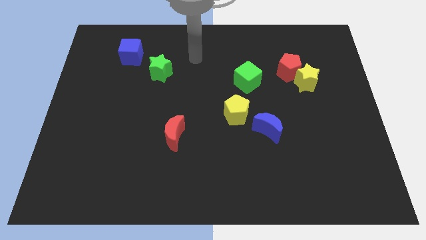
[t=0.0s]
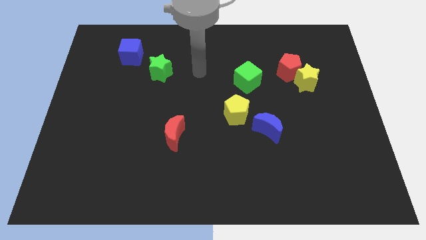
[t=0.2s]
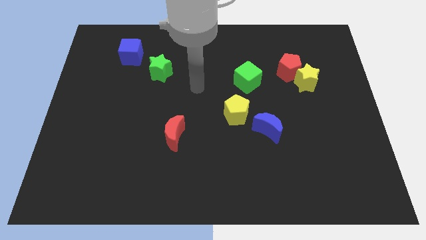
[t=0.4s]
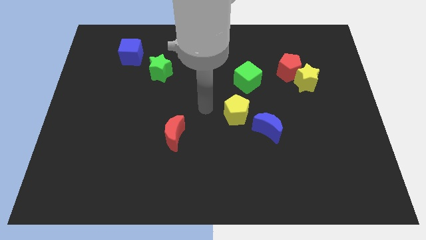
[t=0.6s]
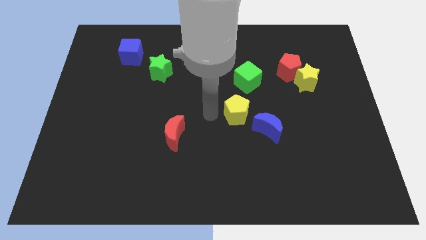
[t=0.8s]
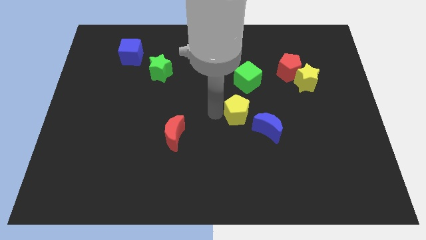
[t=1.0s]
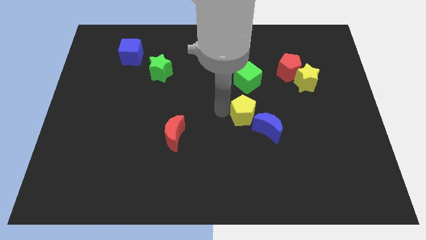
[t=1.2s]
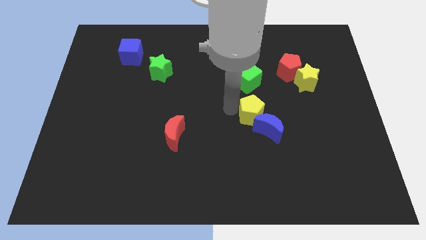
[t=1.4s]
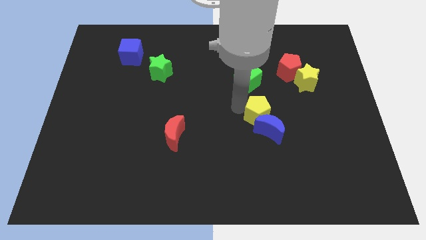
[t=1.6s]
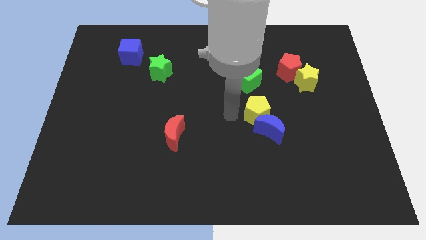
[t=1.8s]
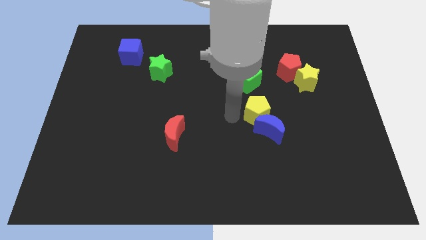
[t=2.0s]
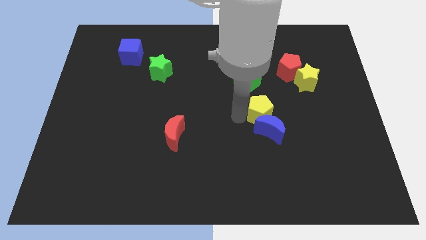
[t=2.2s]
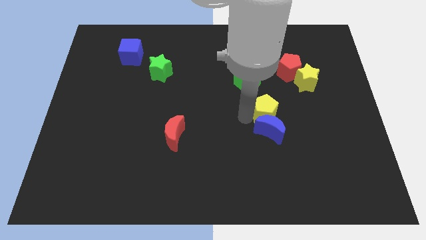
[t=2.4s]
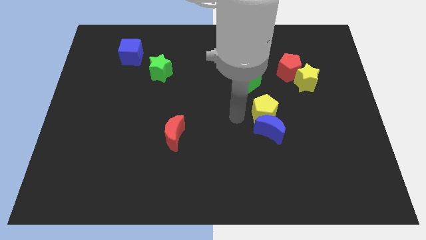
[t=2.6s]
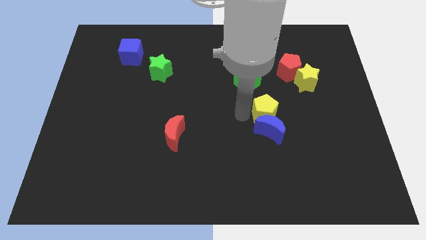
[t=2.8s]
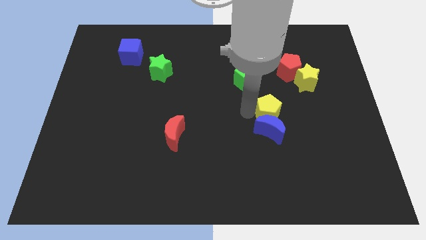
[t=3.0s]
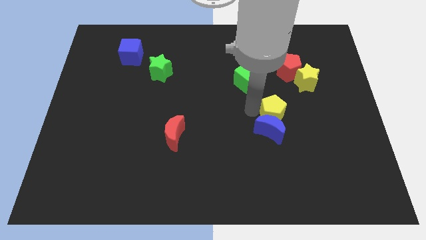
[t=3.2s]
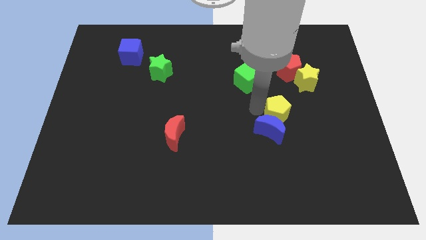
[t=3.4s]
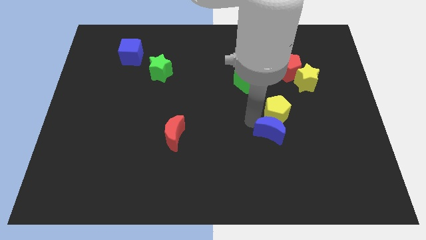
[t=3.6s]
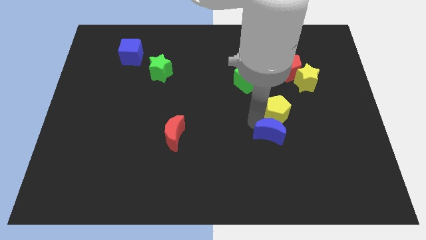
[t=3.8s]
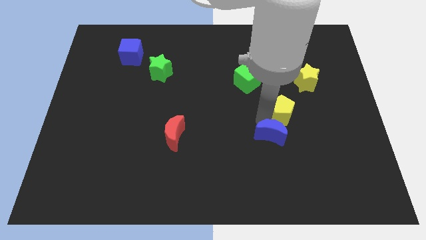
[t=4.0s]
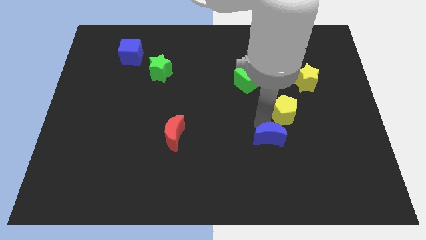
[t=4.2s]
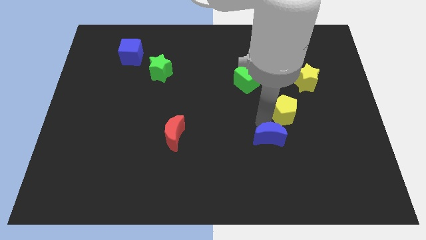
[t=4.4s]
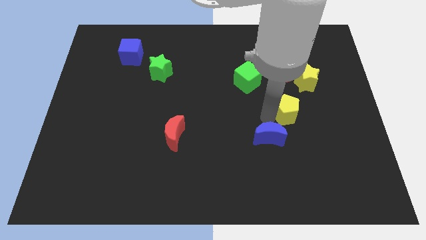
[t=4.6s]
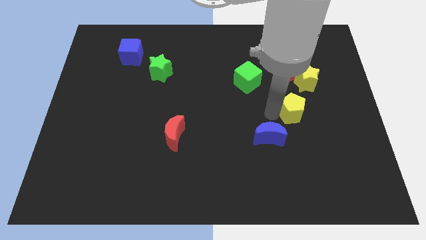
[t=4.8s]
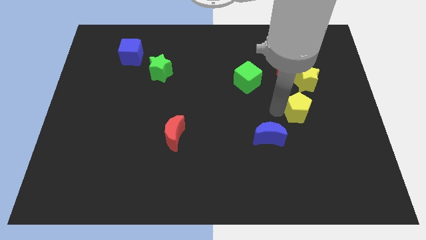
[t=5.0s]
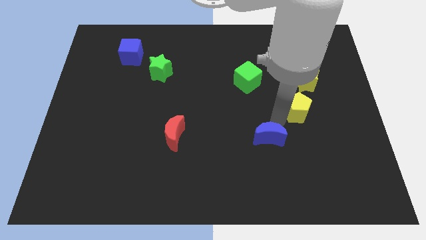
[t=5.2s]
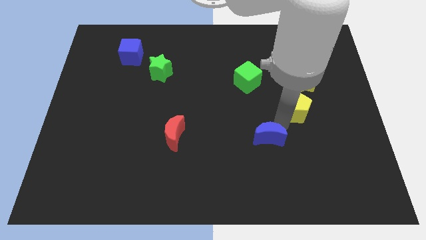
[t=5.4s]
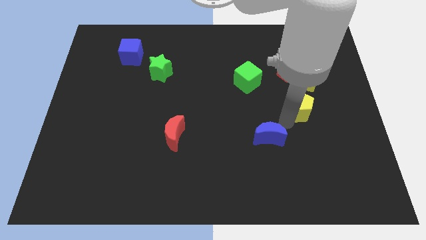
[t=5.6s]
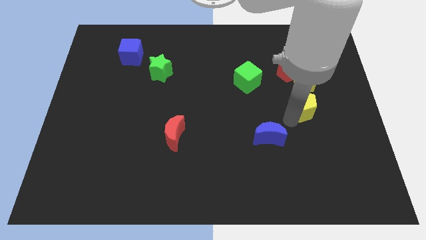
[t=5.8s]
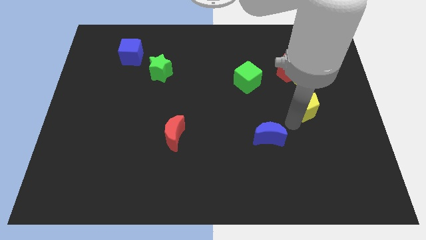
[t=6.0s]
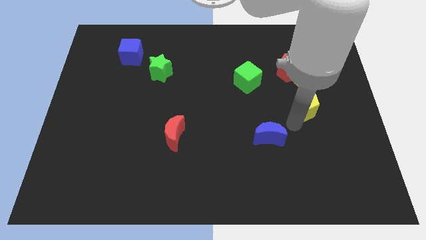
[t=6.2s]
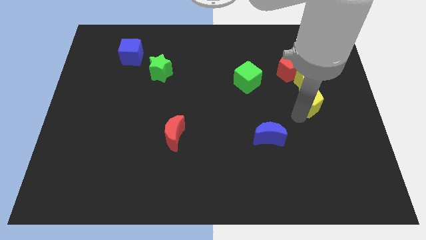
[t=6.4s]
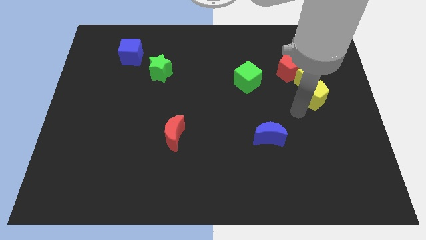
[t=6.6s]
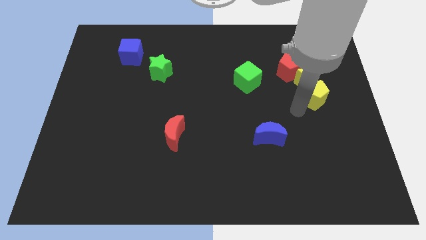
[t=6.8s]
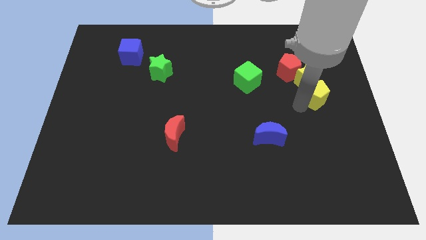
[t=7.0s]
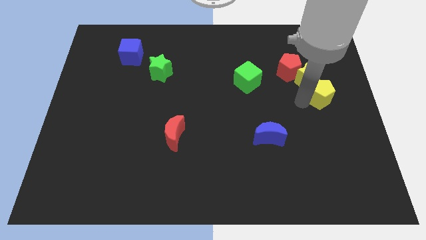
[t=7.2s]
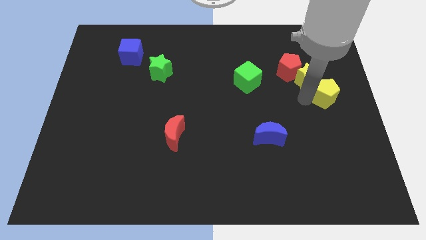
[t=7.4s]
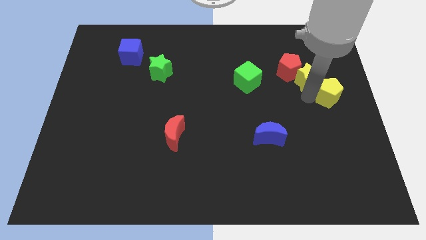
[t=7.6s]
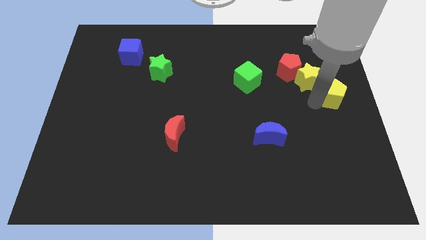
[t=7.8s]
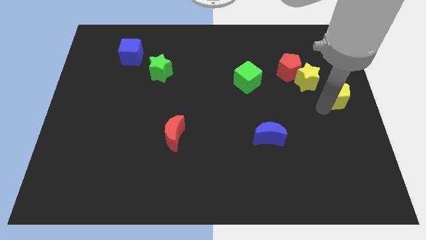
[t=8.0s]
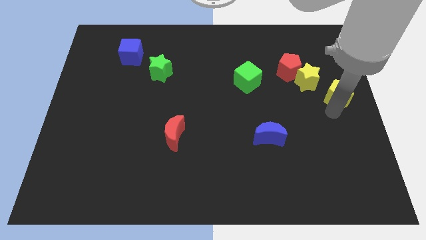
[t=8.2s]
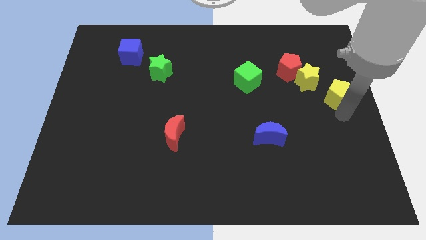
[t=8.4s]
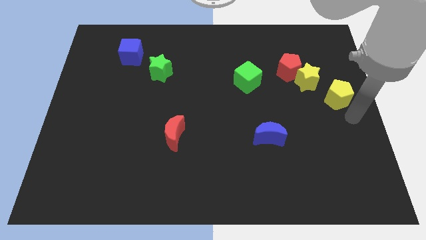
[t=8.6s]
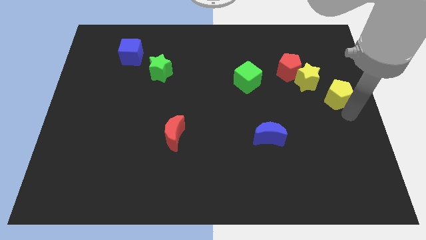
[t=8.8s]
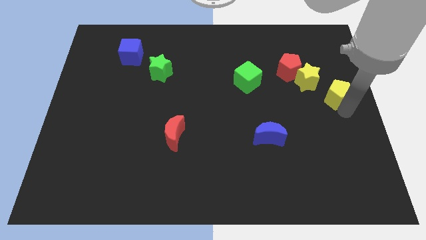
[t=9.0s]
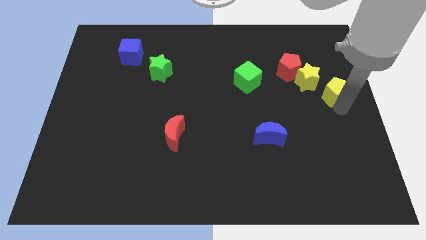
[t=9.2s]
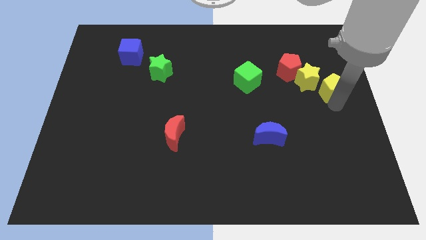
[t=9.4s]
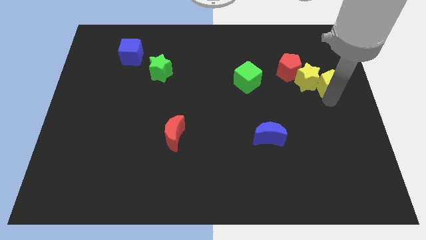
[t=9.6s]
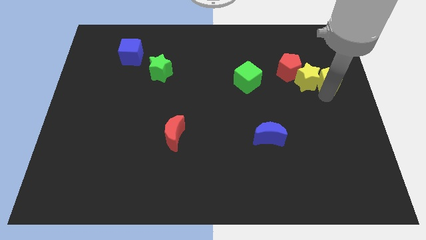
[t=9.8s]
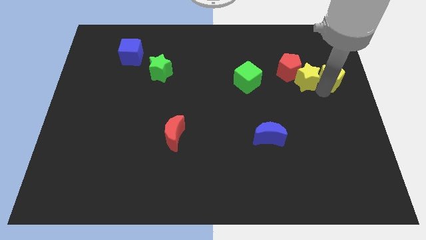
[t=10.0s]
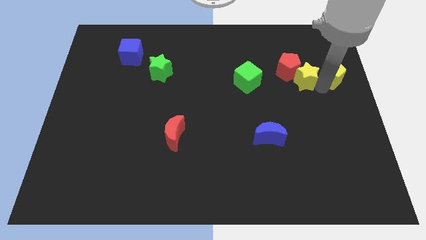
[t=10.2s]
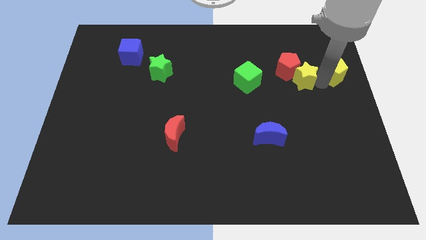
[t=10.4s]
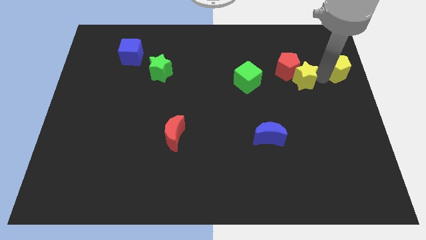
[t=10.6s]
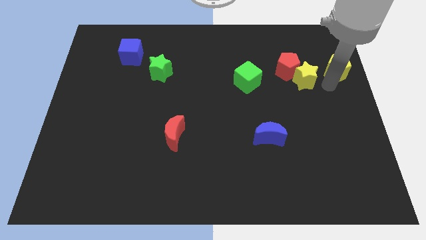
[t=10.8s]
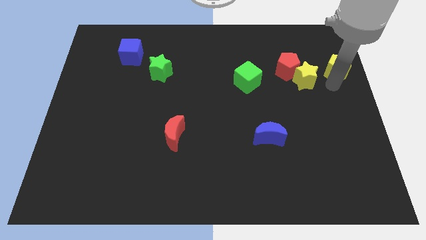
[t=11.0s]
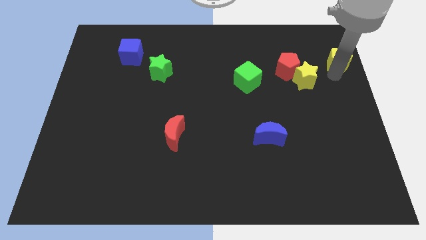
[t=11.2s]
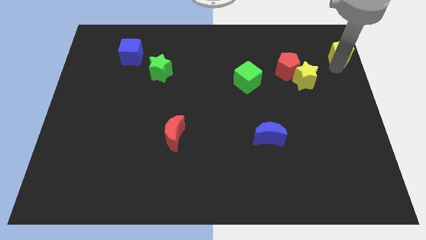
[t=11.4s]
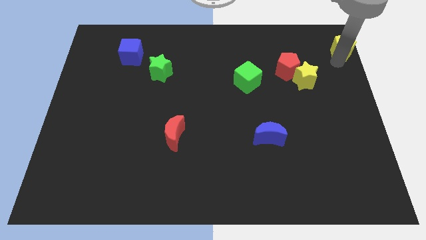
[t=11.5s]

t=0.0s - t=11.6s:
push the yellow pentagon to the upper right corner
